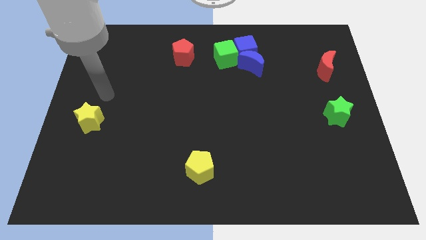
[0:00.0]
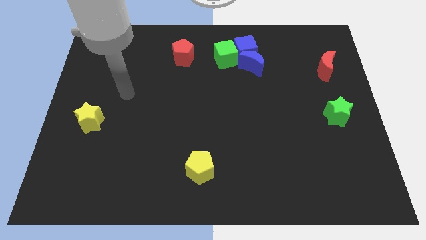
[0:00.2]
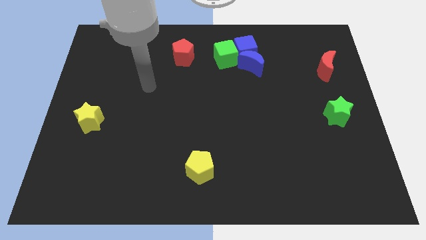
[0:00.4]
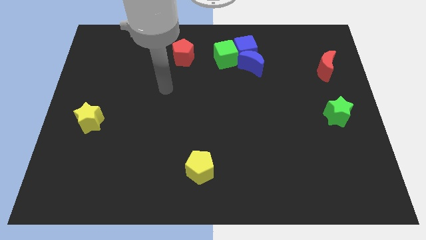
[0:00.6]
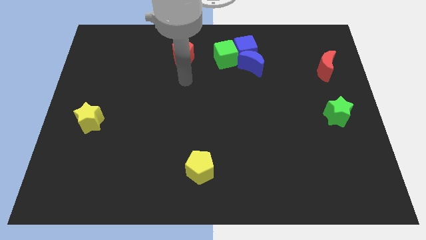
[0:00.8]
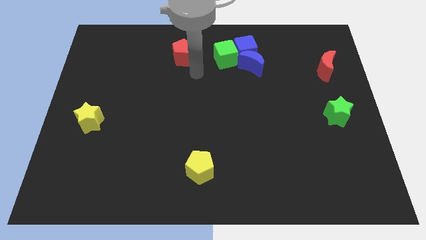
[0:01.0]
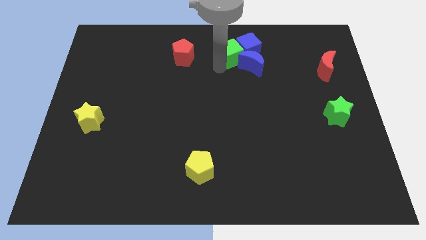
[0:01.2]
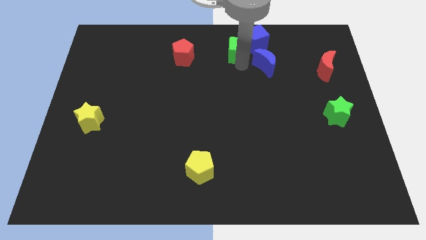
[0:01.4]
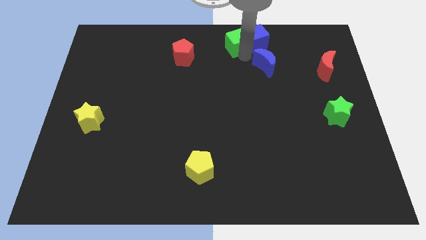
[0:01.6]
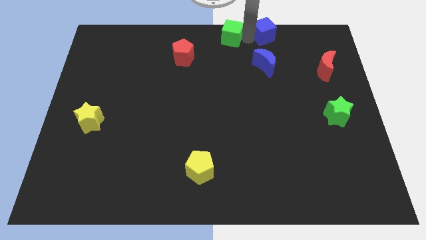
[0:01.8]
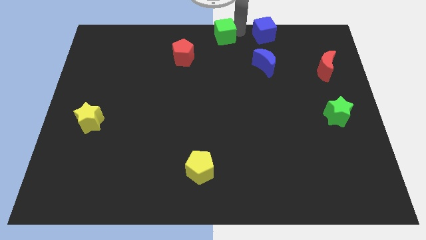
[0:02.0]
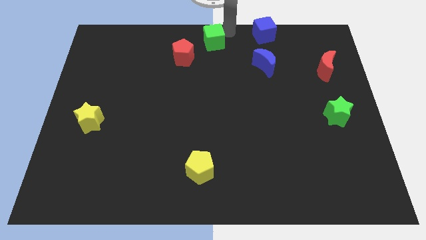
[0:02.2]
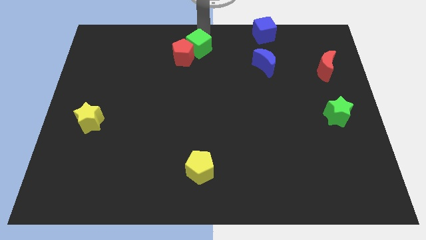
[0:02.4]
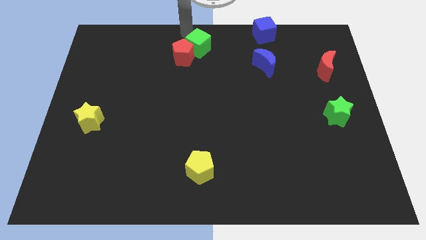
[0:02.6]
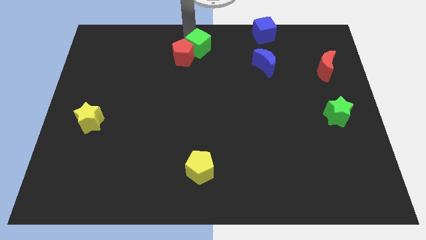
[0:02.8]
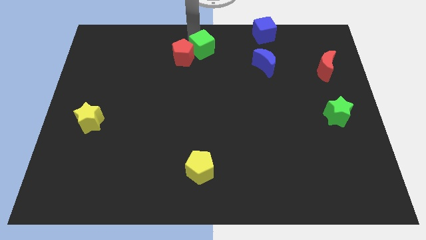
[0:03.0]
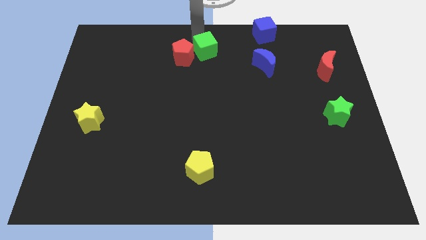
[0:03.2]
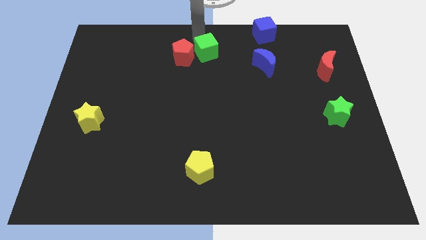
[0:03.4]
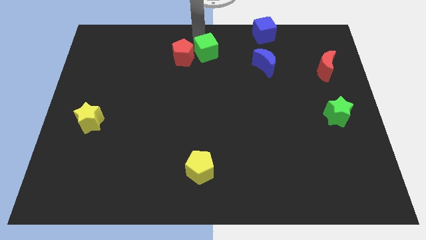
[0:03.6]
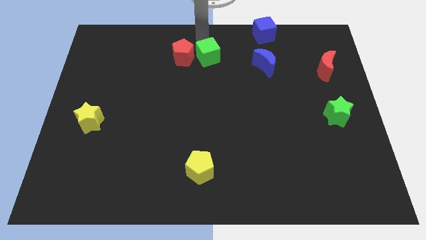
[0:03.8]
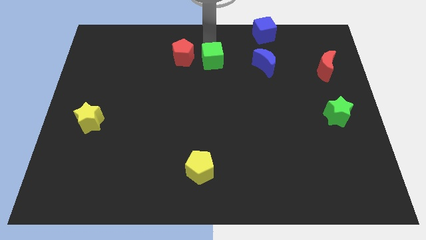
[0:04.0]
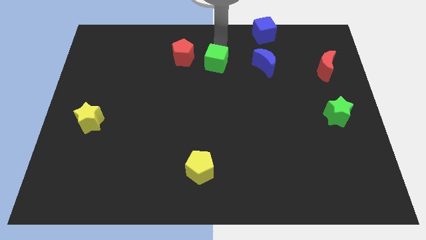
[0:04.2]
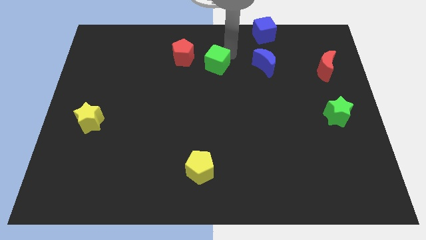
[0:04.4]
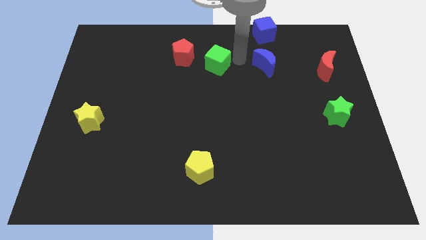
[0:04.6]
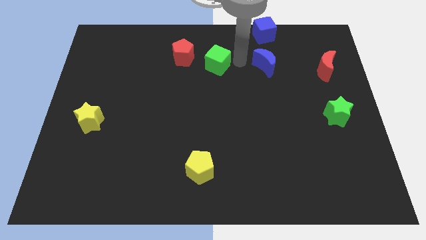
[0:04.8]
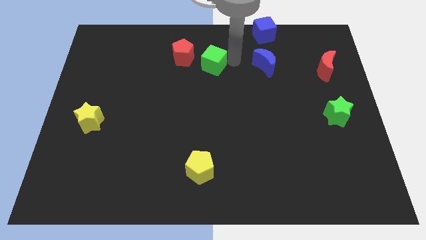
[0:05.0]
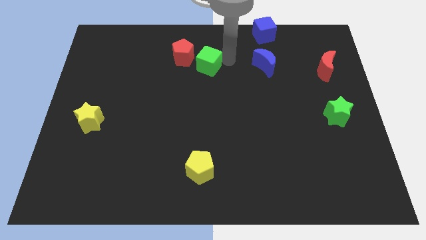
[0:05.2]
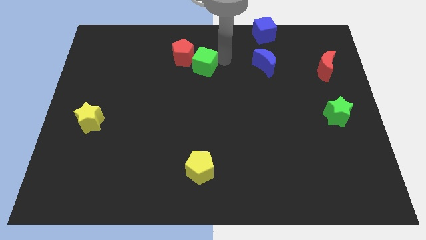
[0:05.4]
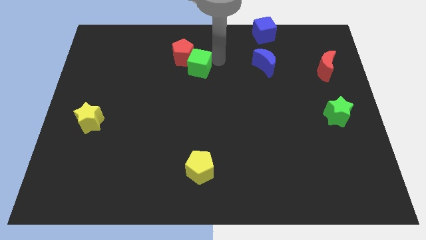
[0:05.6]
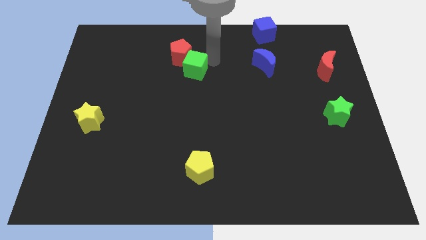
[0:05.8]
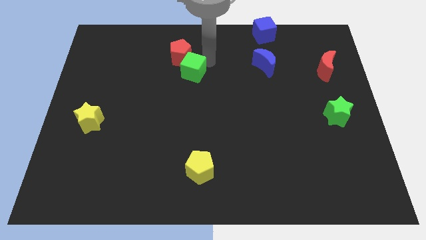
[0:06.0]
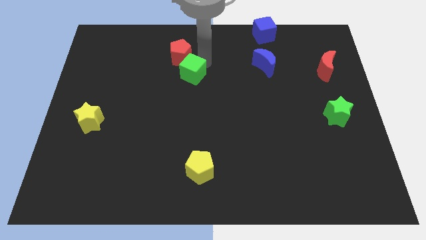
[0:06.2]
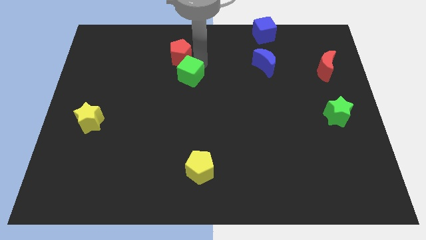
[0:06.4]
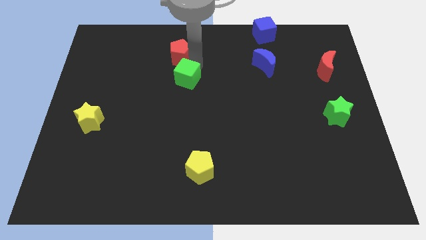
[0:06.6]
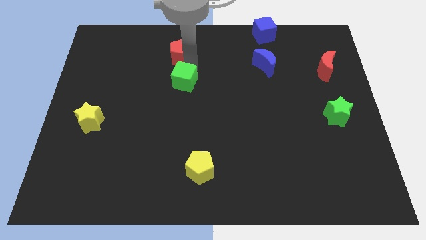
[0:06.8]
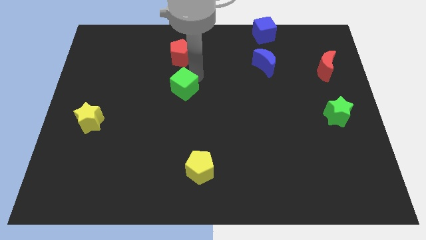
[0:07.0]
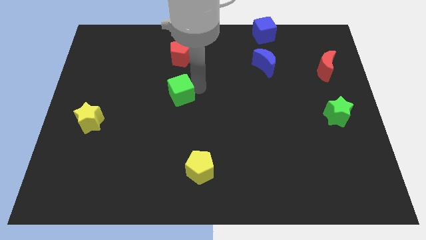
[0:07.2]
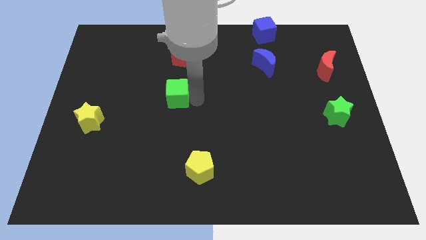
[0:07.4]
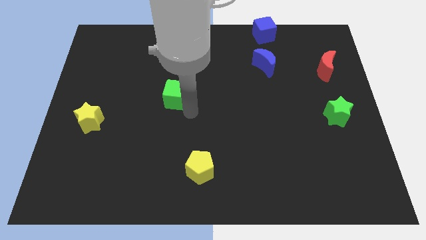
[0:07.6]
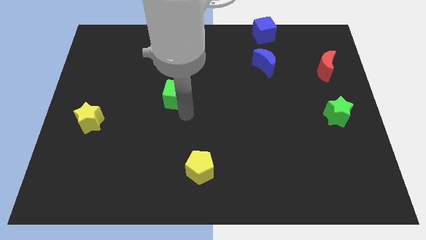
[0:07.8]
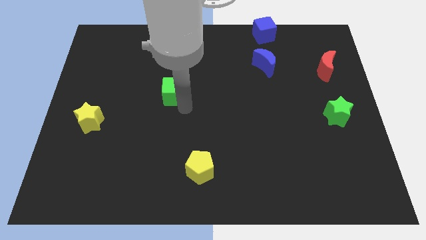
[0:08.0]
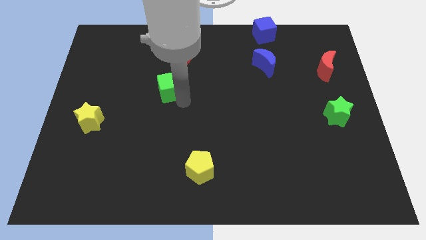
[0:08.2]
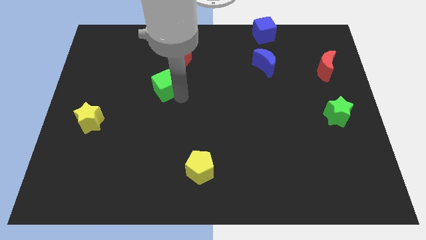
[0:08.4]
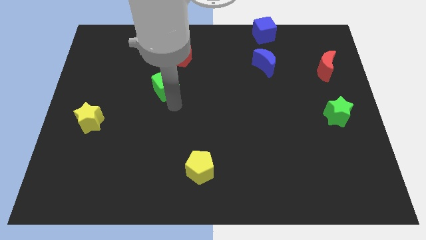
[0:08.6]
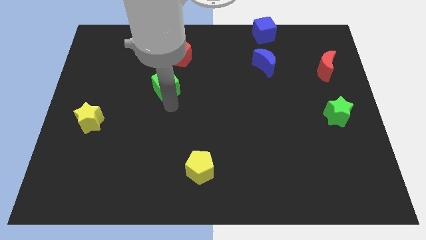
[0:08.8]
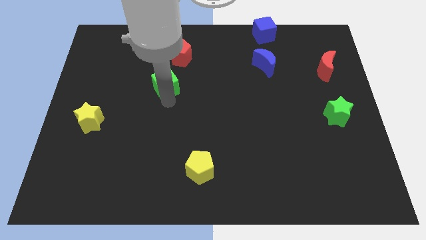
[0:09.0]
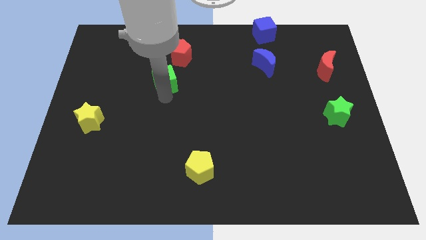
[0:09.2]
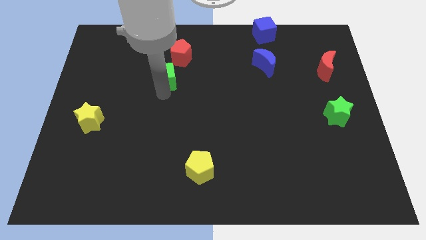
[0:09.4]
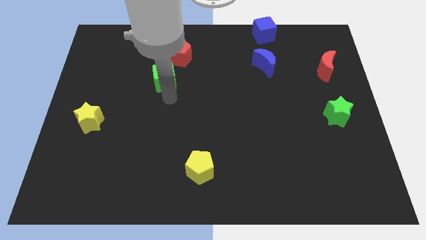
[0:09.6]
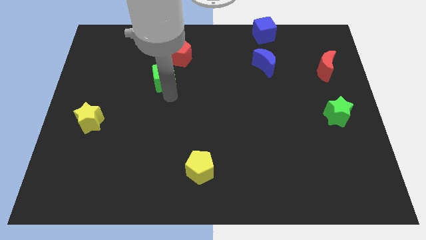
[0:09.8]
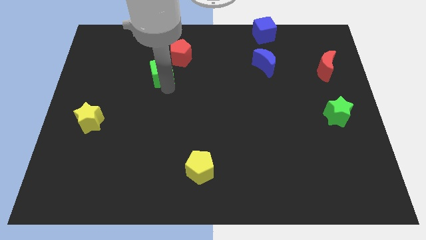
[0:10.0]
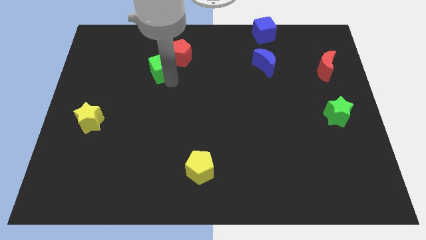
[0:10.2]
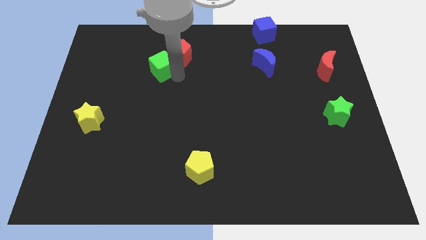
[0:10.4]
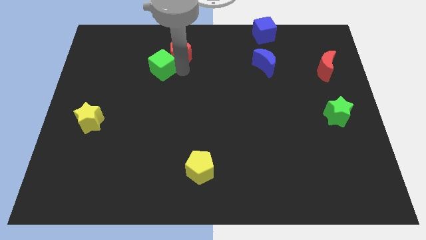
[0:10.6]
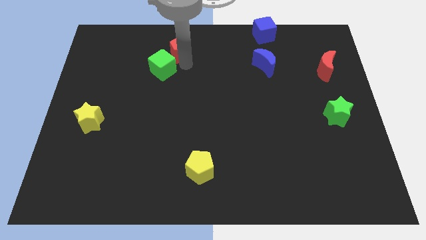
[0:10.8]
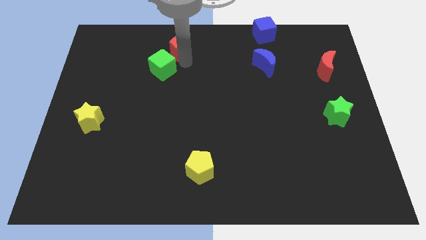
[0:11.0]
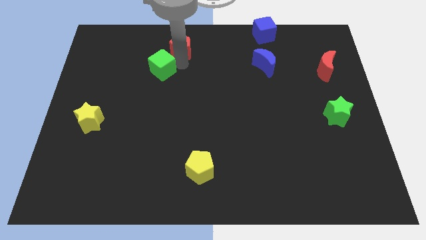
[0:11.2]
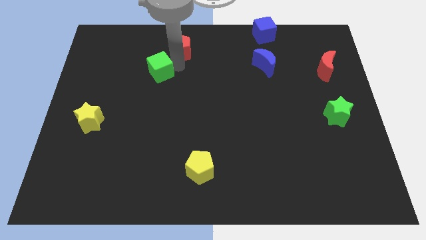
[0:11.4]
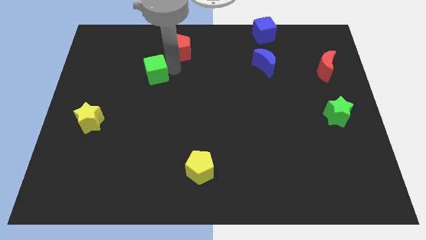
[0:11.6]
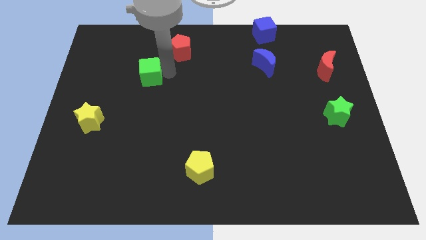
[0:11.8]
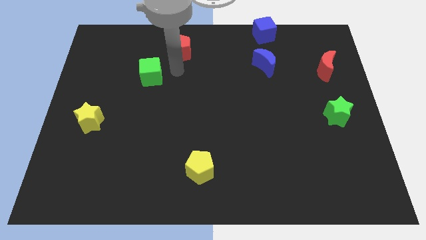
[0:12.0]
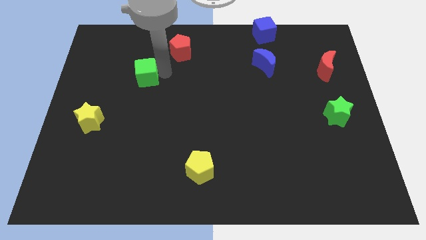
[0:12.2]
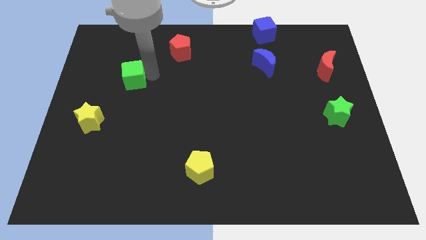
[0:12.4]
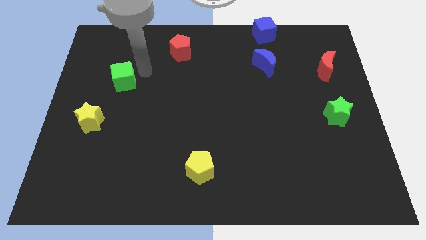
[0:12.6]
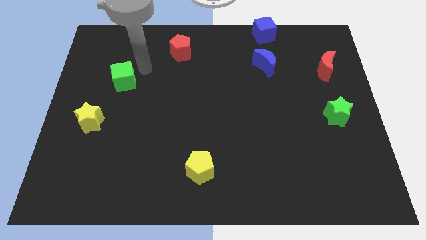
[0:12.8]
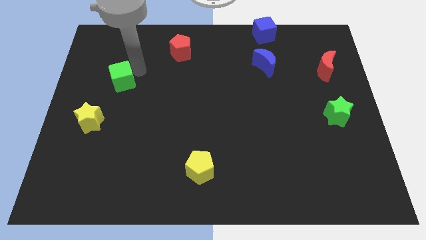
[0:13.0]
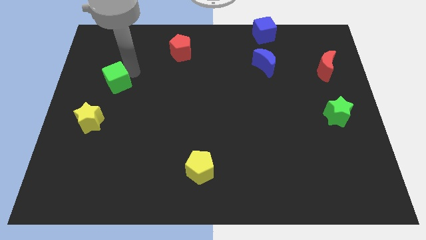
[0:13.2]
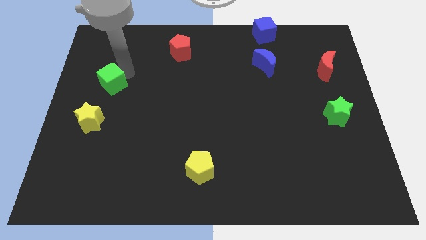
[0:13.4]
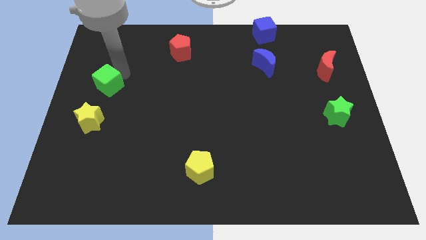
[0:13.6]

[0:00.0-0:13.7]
slide the green cube to the center left

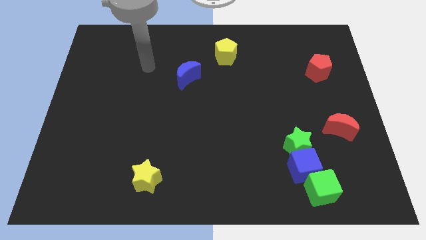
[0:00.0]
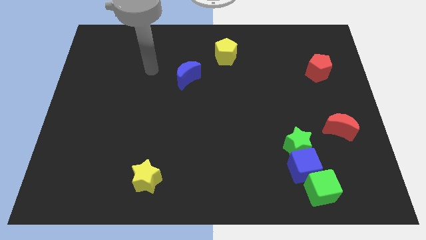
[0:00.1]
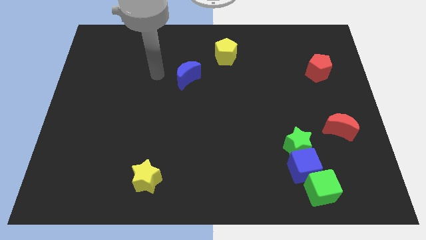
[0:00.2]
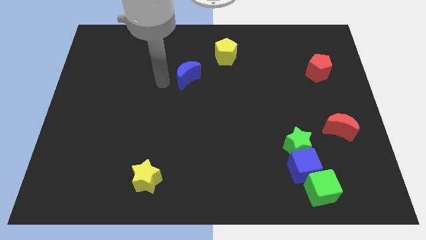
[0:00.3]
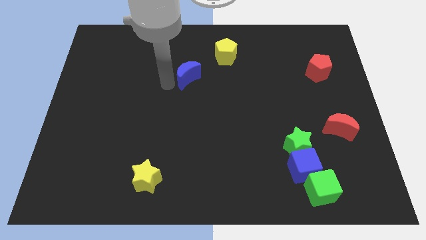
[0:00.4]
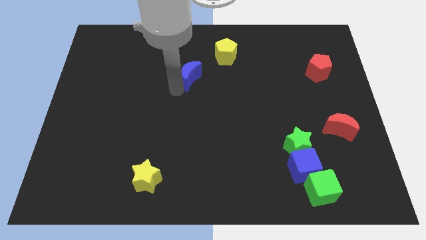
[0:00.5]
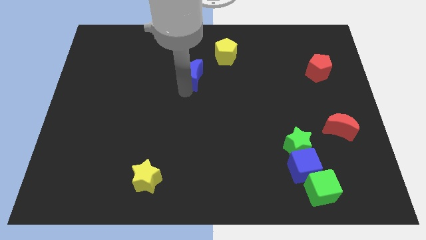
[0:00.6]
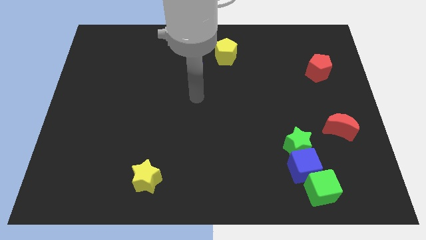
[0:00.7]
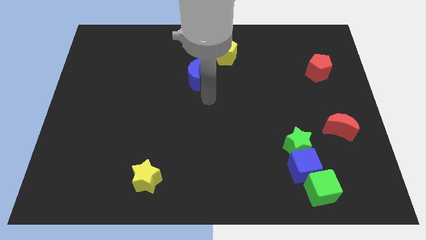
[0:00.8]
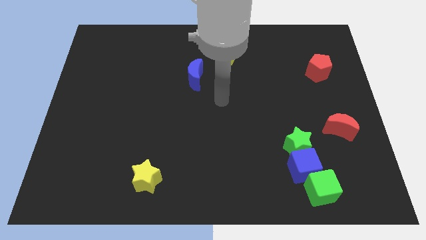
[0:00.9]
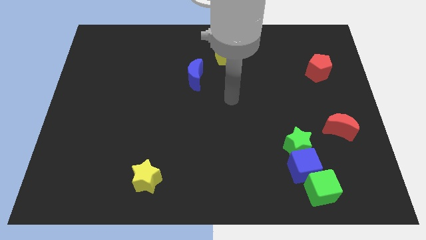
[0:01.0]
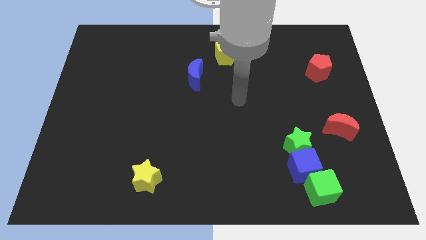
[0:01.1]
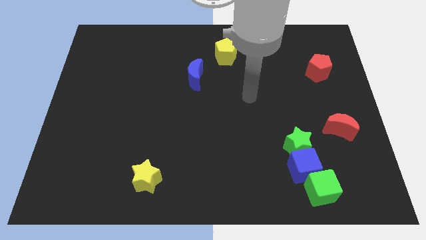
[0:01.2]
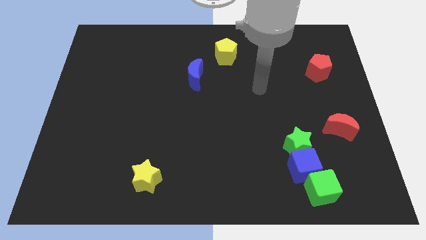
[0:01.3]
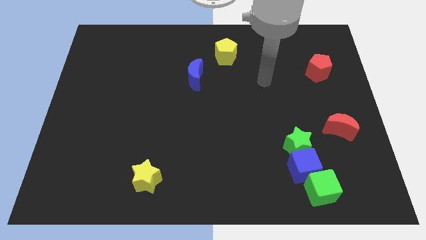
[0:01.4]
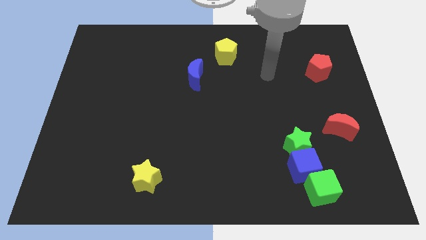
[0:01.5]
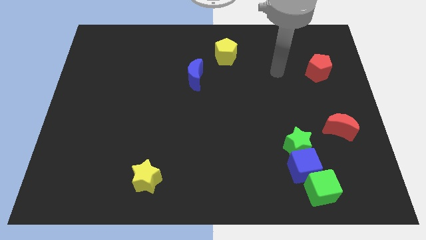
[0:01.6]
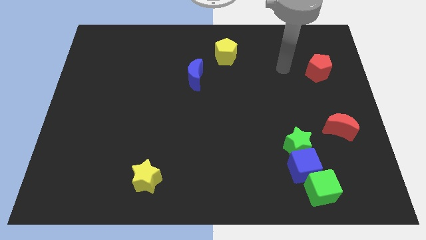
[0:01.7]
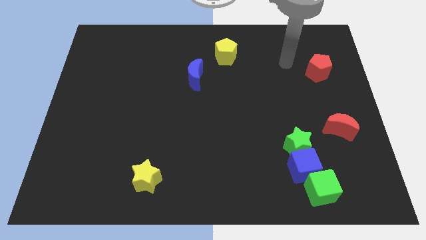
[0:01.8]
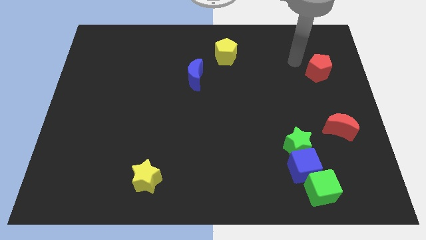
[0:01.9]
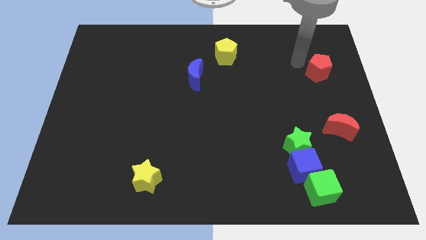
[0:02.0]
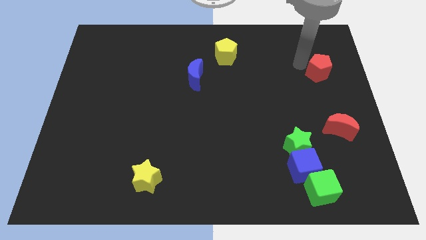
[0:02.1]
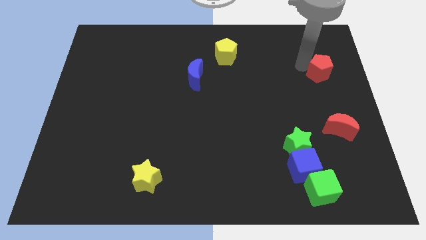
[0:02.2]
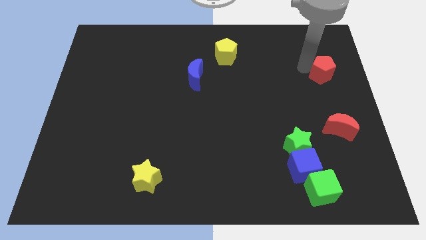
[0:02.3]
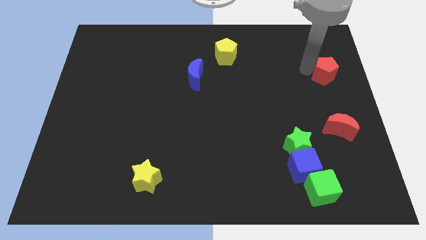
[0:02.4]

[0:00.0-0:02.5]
slide the red pentagon to the right side
